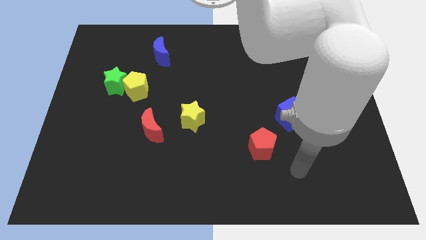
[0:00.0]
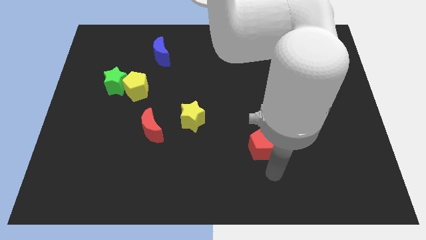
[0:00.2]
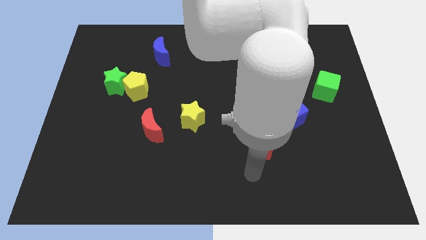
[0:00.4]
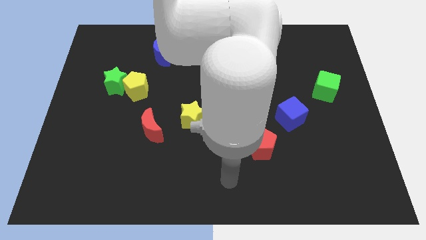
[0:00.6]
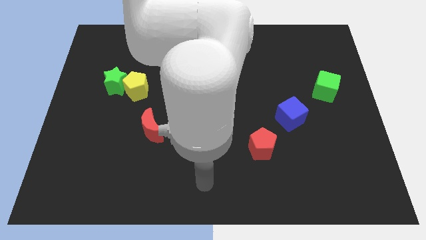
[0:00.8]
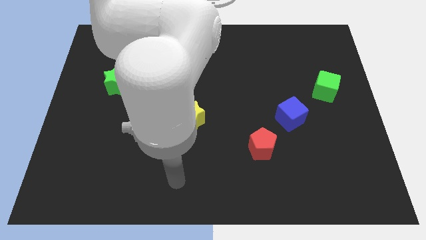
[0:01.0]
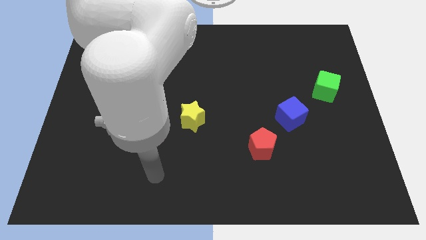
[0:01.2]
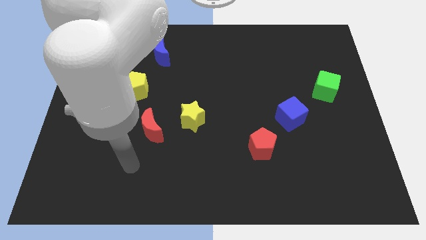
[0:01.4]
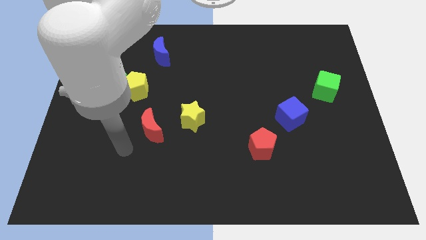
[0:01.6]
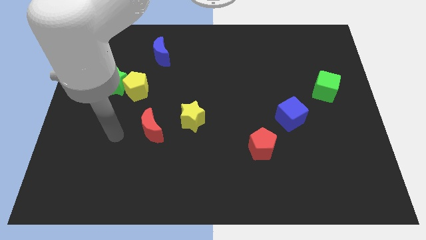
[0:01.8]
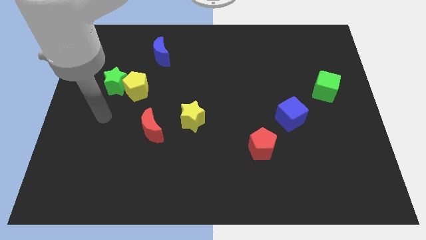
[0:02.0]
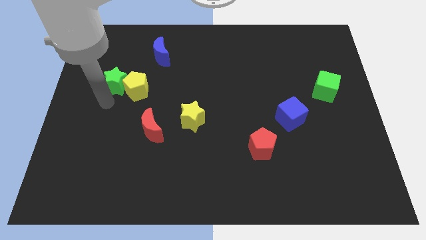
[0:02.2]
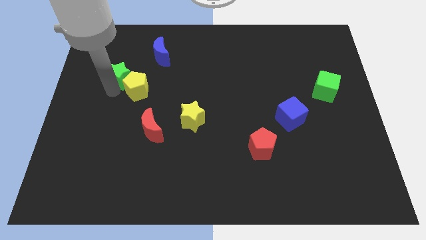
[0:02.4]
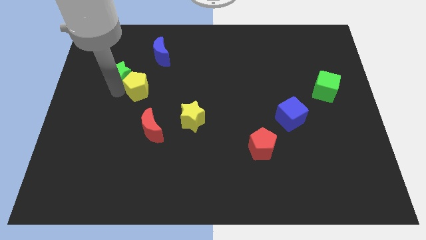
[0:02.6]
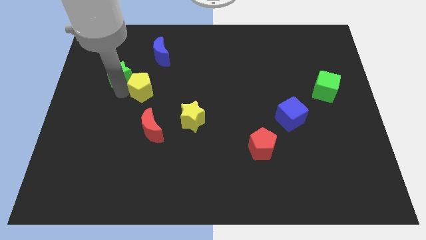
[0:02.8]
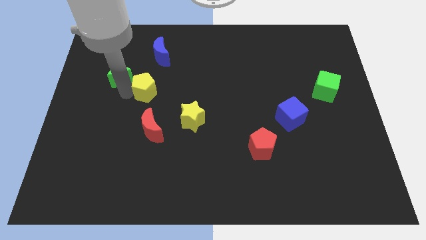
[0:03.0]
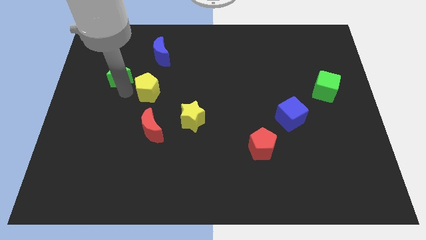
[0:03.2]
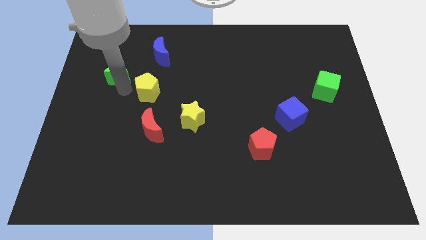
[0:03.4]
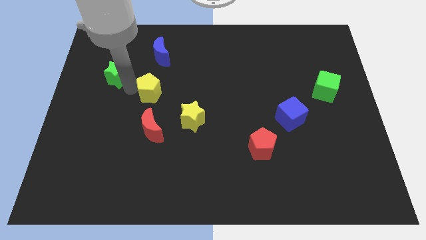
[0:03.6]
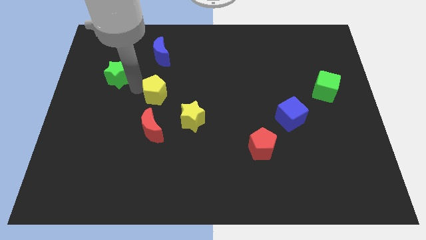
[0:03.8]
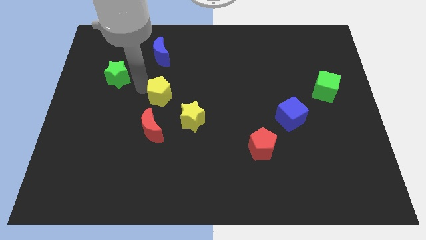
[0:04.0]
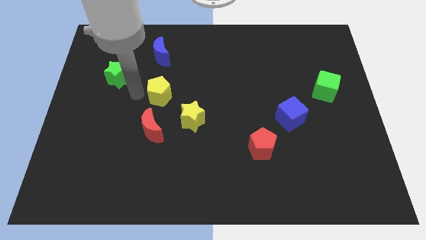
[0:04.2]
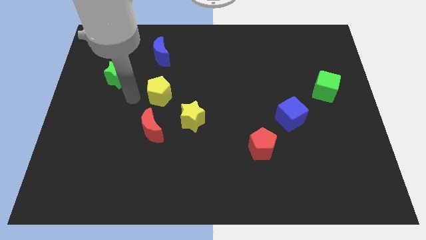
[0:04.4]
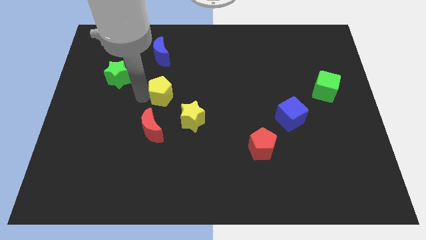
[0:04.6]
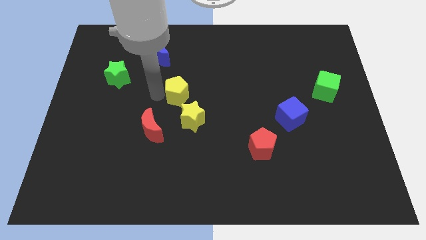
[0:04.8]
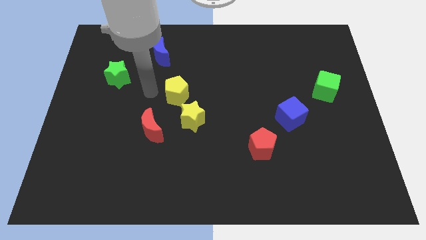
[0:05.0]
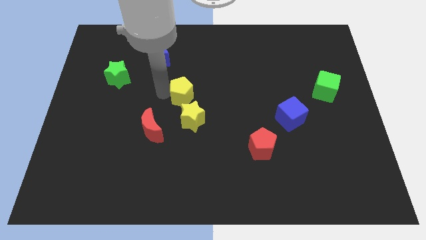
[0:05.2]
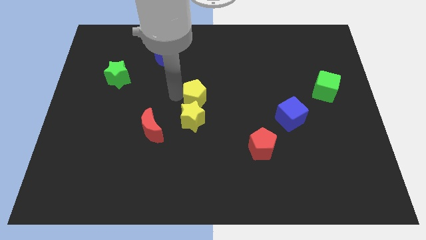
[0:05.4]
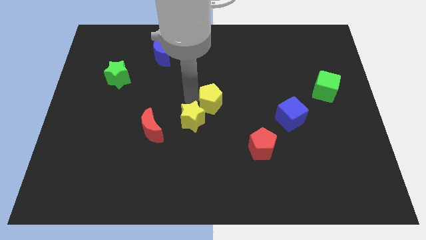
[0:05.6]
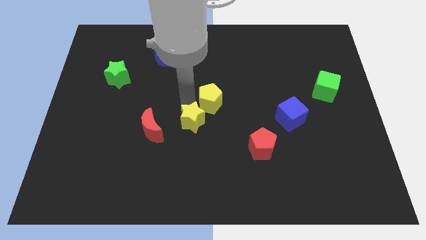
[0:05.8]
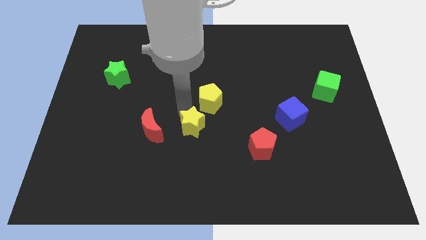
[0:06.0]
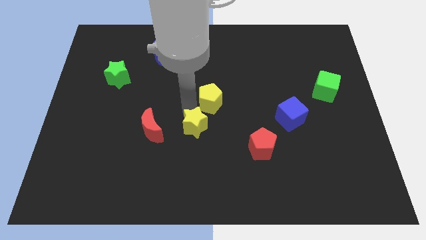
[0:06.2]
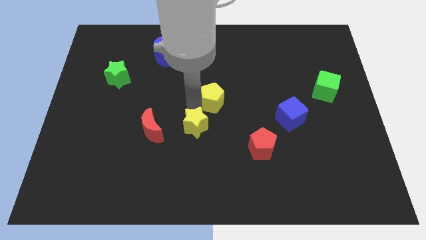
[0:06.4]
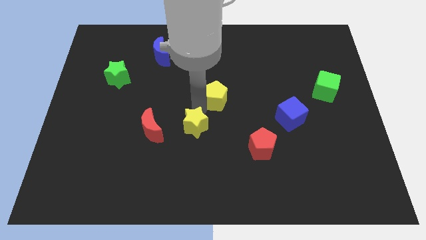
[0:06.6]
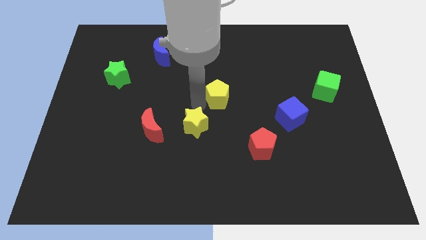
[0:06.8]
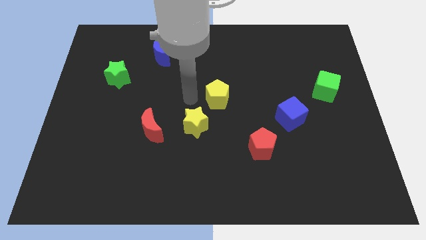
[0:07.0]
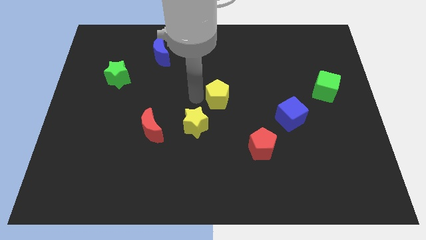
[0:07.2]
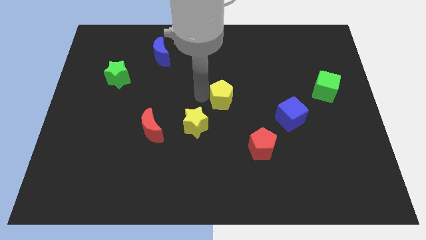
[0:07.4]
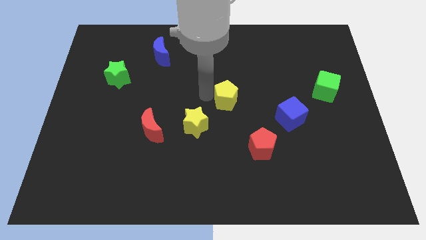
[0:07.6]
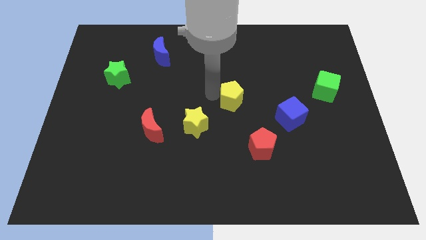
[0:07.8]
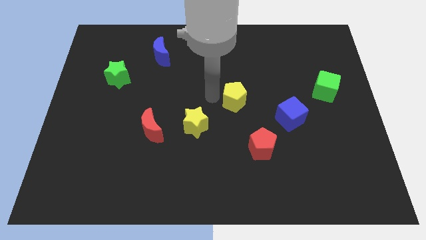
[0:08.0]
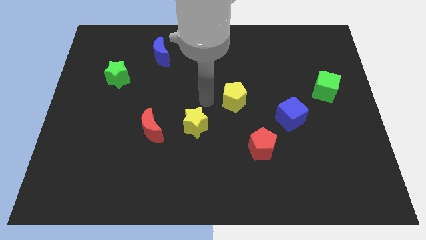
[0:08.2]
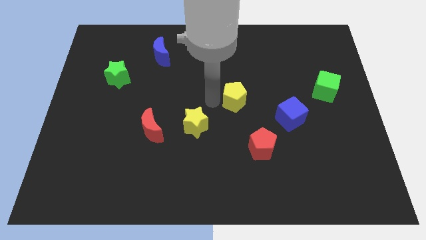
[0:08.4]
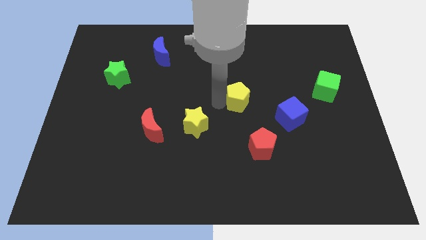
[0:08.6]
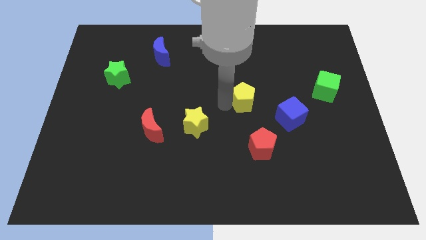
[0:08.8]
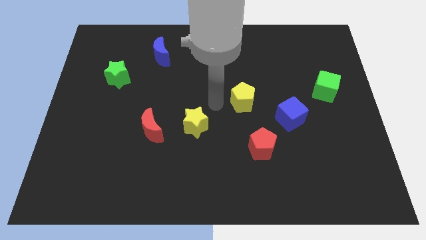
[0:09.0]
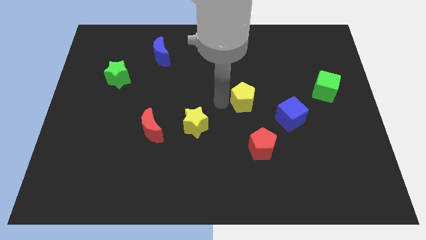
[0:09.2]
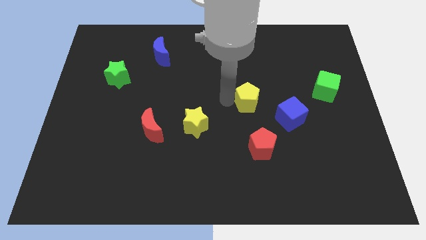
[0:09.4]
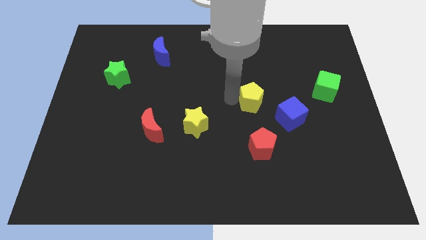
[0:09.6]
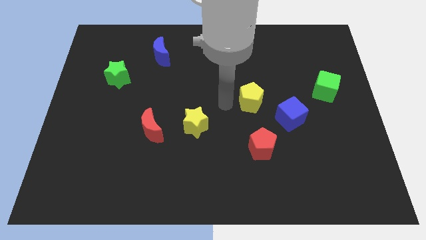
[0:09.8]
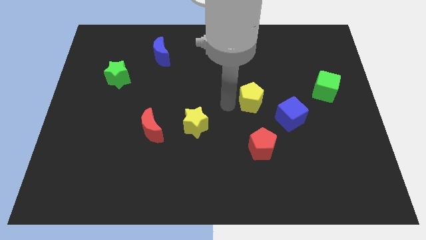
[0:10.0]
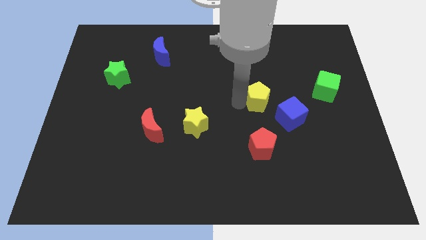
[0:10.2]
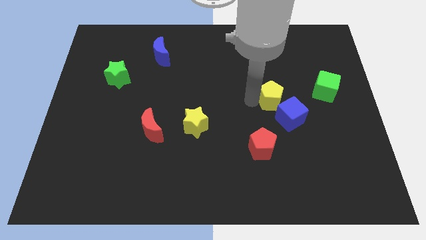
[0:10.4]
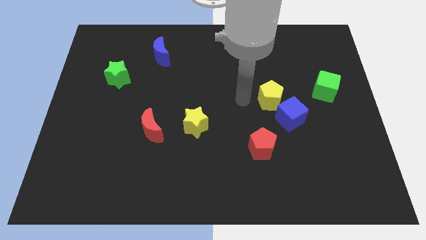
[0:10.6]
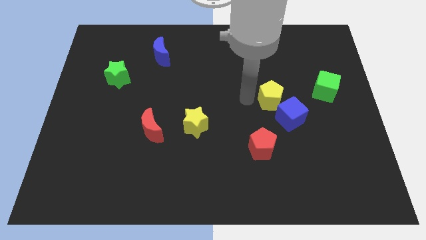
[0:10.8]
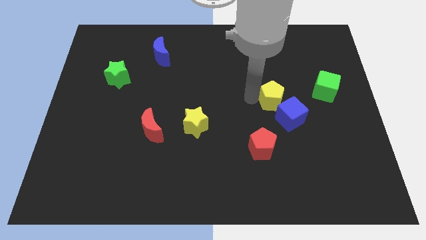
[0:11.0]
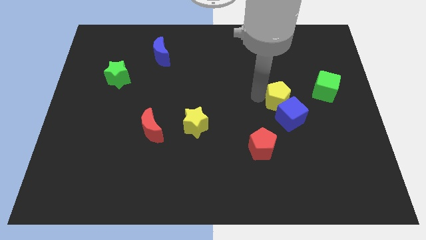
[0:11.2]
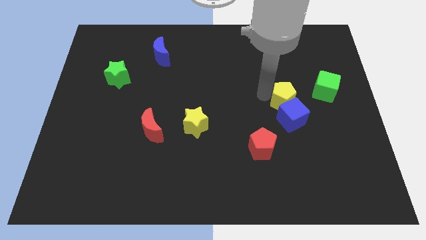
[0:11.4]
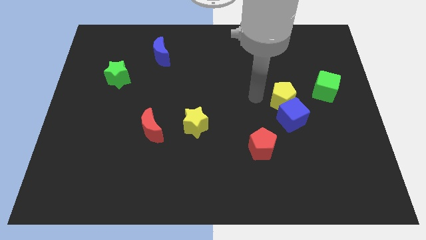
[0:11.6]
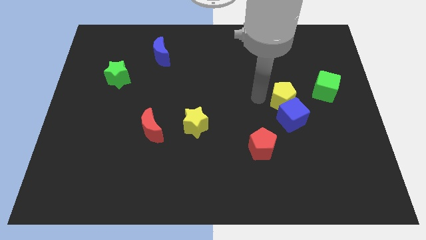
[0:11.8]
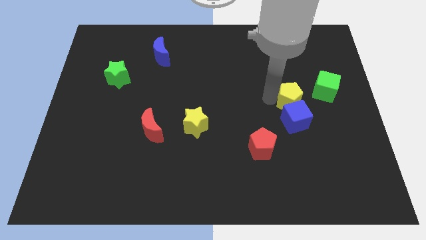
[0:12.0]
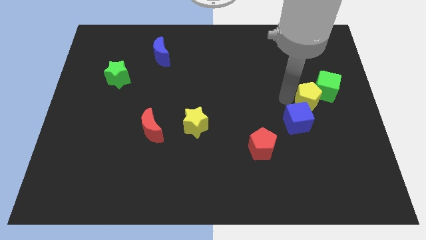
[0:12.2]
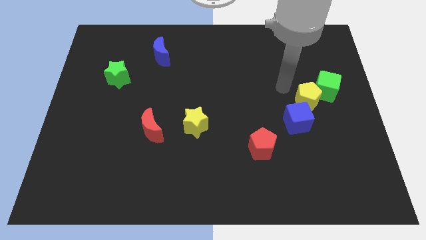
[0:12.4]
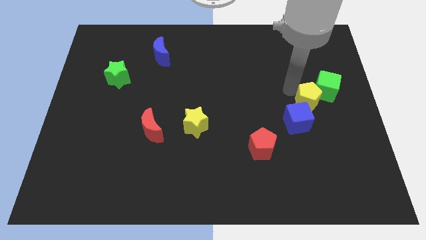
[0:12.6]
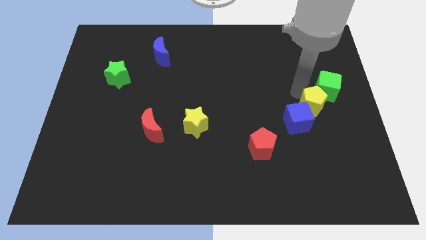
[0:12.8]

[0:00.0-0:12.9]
move the yellow pentagon just right of the blue cube
